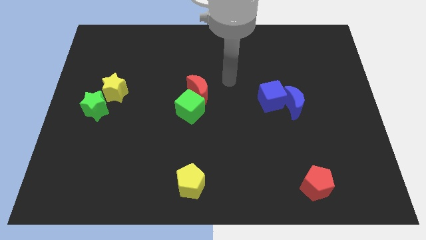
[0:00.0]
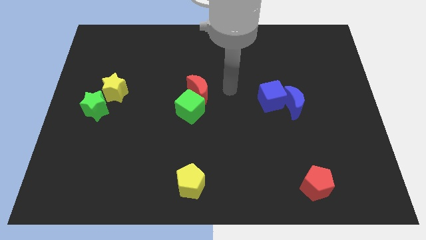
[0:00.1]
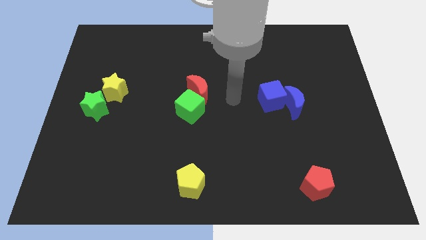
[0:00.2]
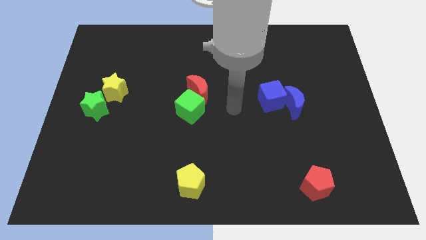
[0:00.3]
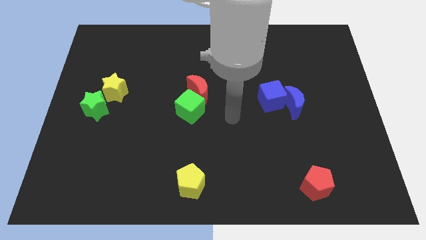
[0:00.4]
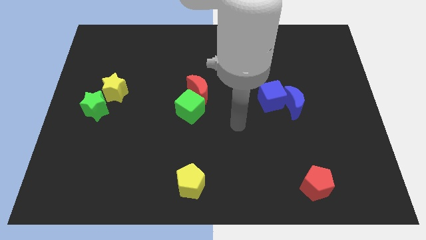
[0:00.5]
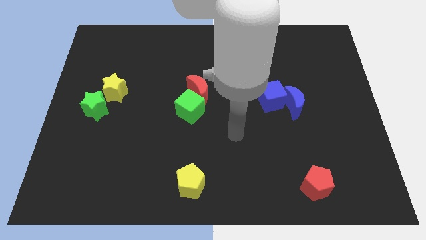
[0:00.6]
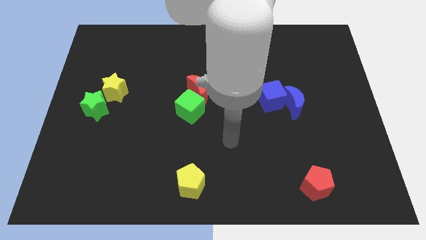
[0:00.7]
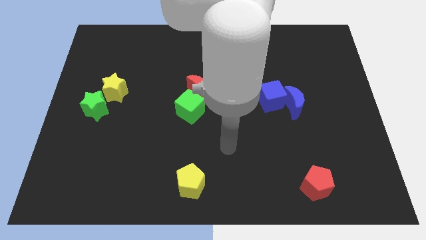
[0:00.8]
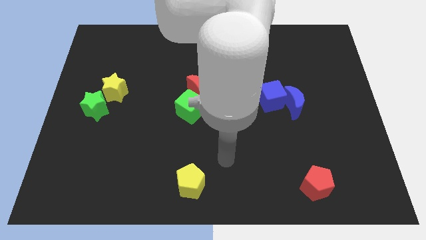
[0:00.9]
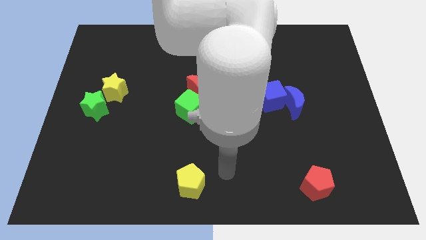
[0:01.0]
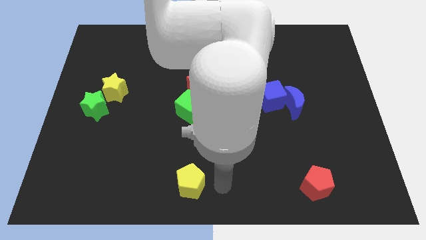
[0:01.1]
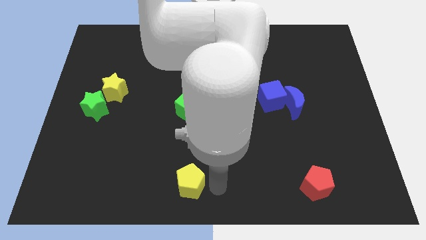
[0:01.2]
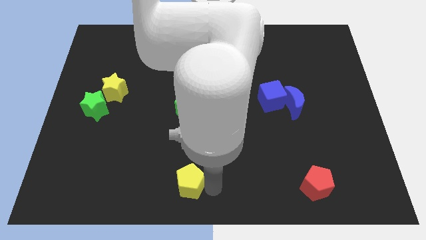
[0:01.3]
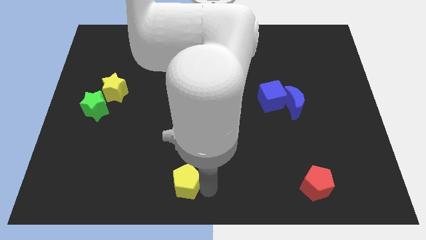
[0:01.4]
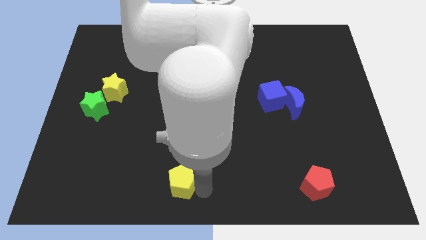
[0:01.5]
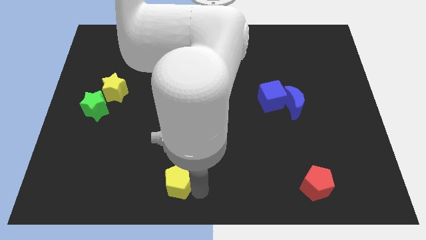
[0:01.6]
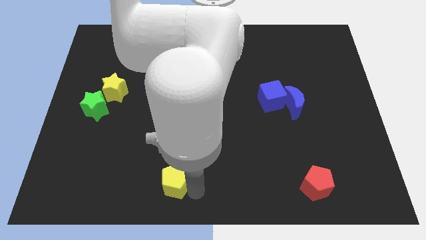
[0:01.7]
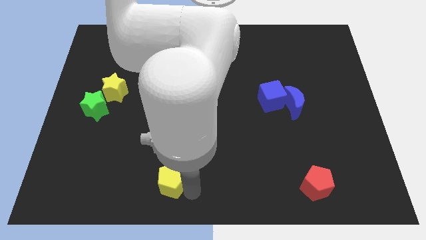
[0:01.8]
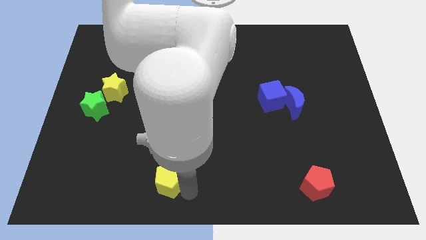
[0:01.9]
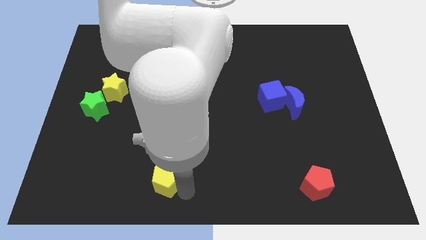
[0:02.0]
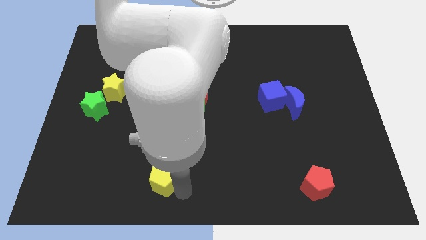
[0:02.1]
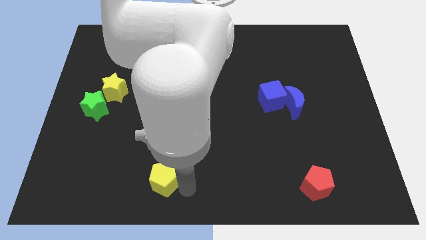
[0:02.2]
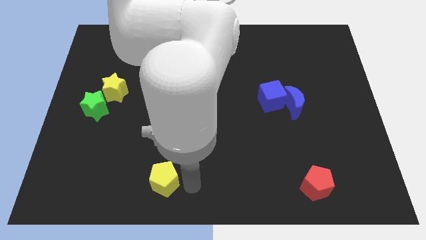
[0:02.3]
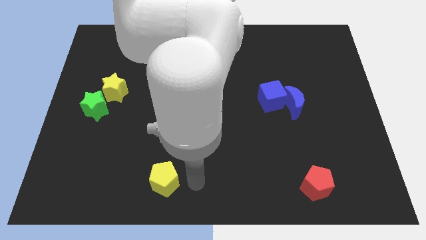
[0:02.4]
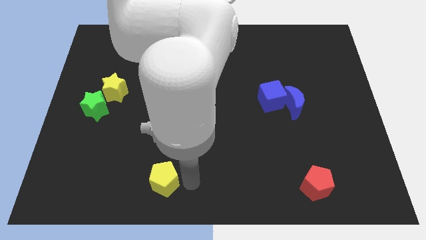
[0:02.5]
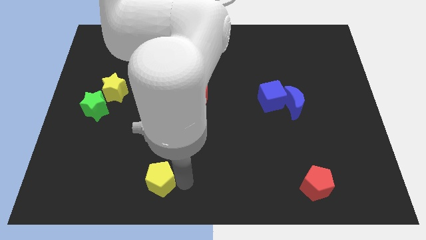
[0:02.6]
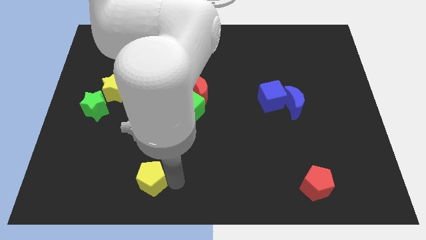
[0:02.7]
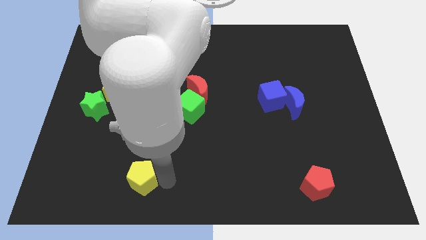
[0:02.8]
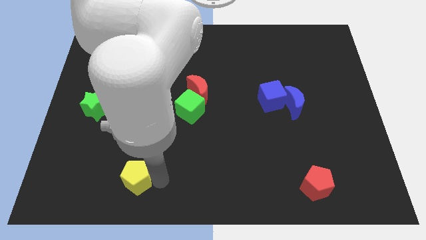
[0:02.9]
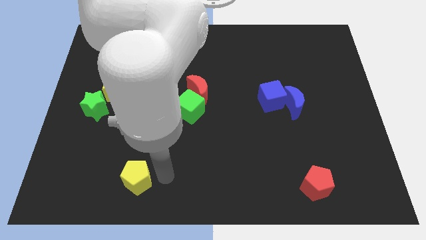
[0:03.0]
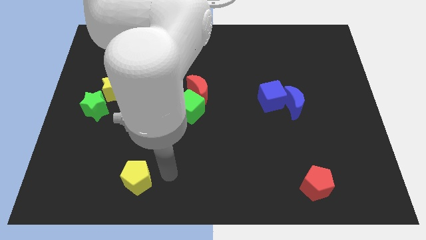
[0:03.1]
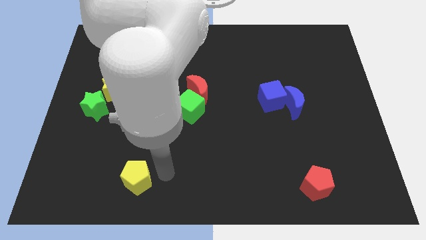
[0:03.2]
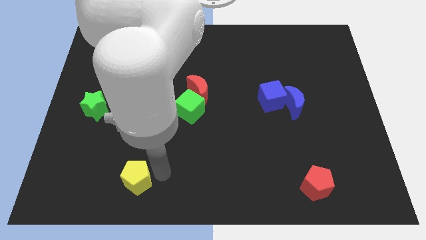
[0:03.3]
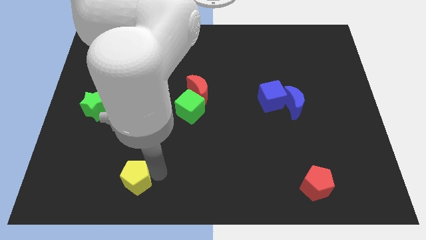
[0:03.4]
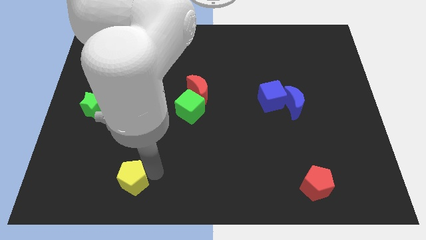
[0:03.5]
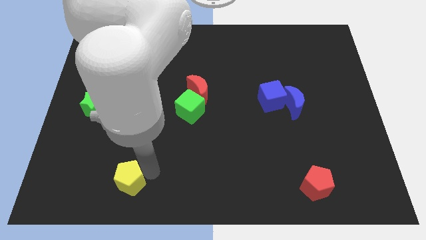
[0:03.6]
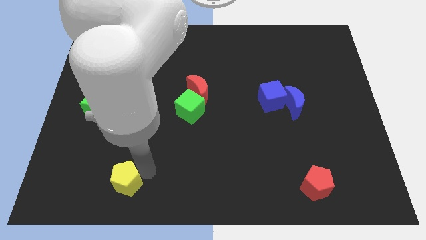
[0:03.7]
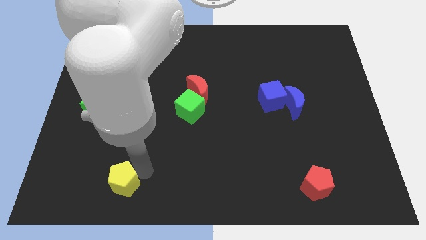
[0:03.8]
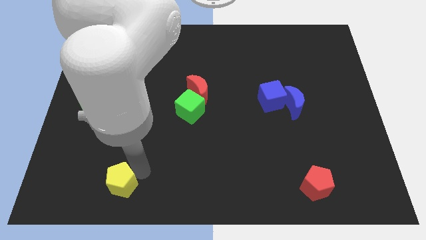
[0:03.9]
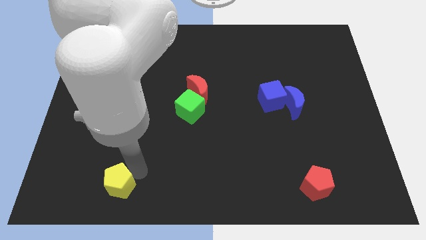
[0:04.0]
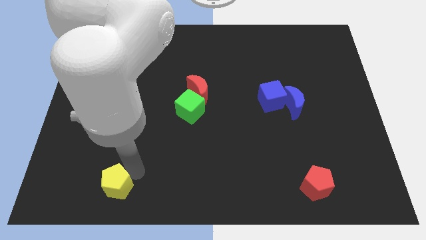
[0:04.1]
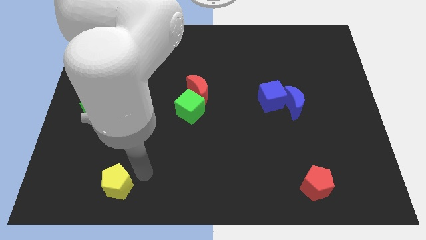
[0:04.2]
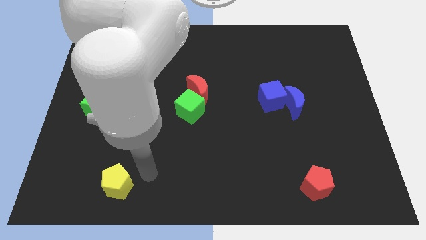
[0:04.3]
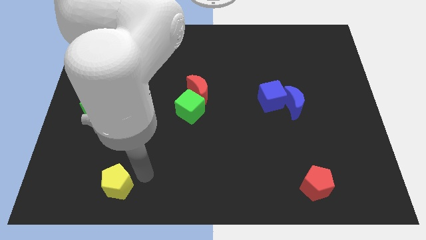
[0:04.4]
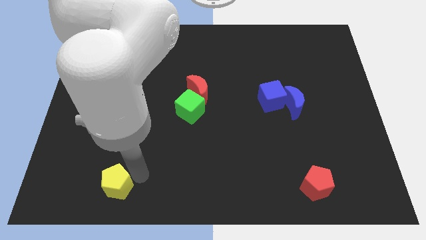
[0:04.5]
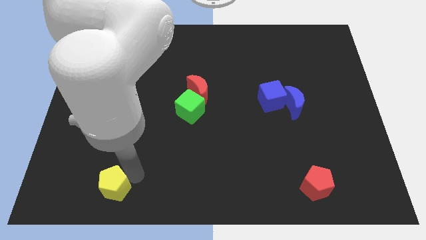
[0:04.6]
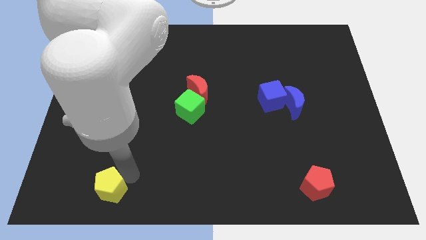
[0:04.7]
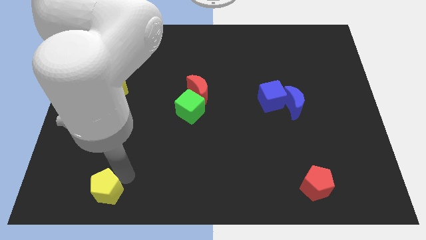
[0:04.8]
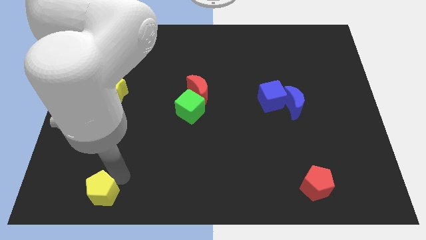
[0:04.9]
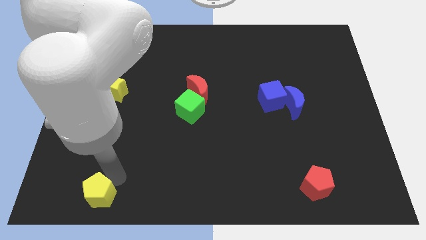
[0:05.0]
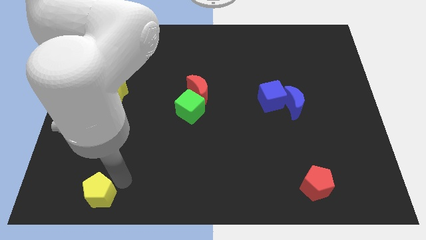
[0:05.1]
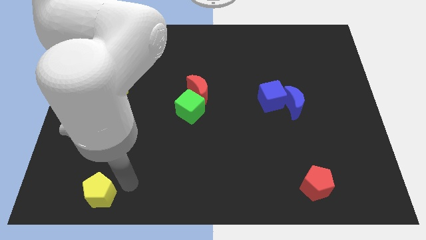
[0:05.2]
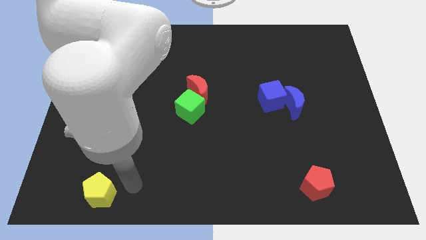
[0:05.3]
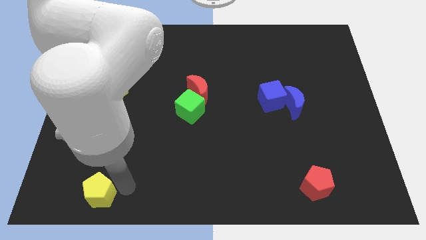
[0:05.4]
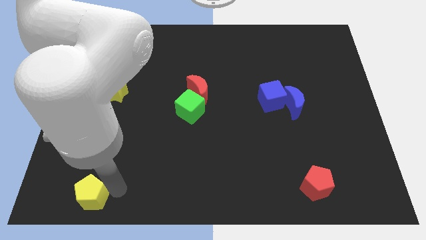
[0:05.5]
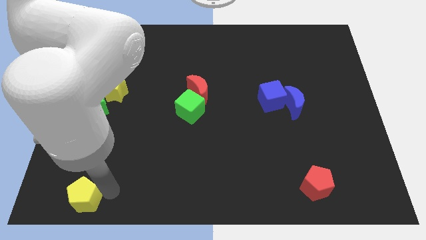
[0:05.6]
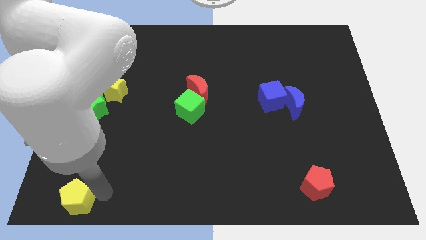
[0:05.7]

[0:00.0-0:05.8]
move the yellow pentagon to the bottom left
